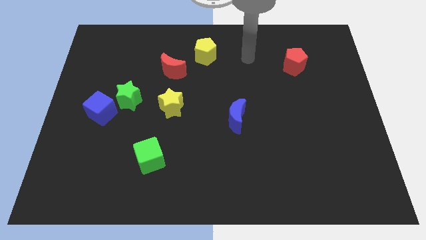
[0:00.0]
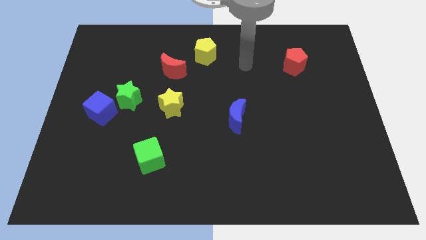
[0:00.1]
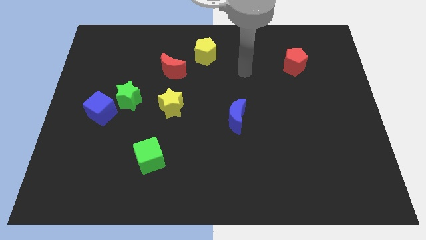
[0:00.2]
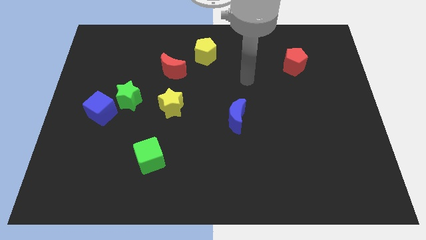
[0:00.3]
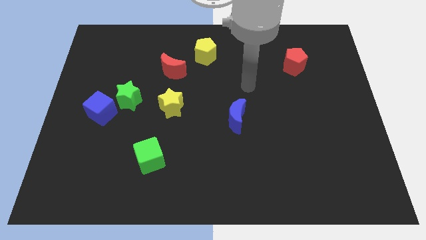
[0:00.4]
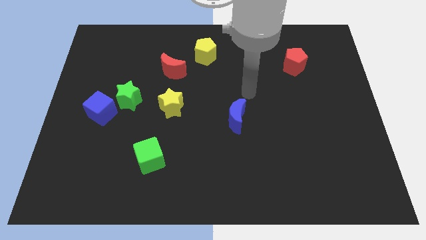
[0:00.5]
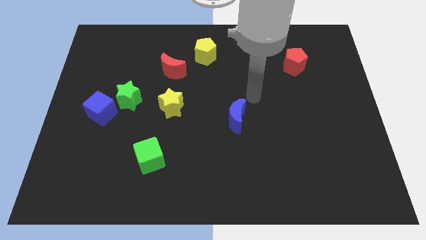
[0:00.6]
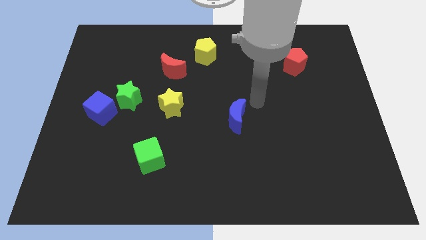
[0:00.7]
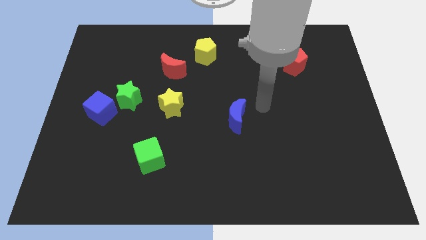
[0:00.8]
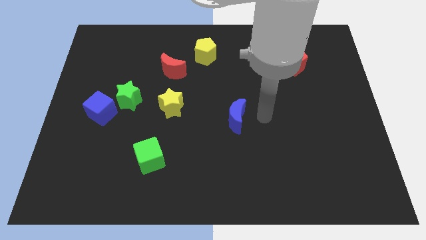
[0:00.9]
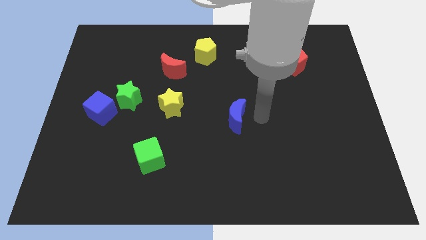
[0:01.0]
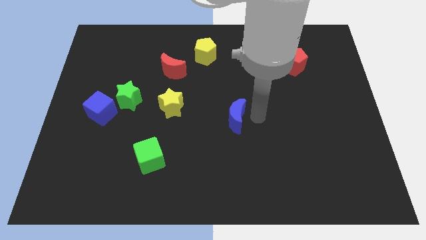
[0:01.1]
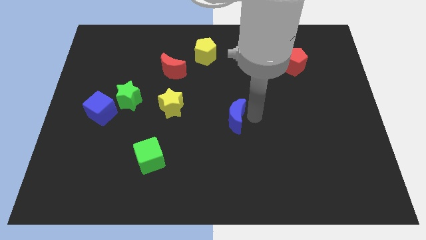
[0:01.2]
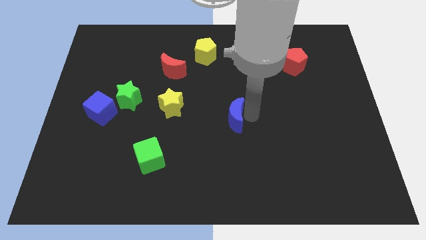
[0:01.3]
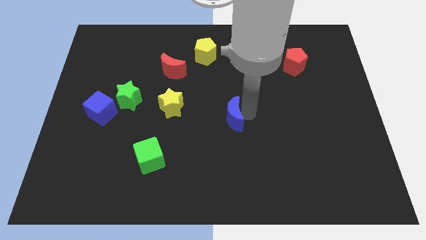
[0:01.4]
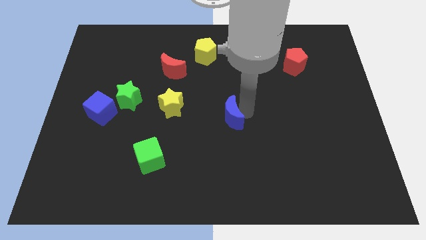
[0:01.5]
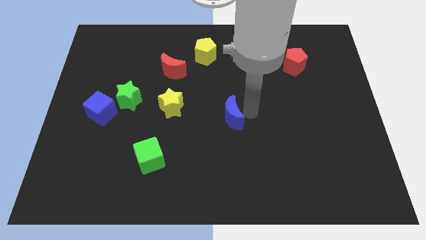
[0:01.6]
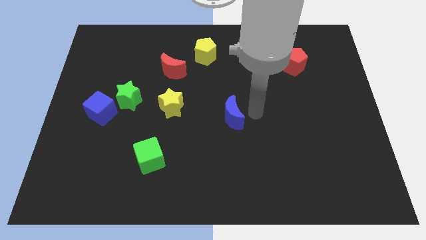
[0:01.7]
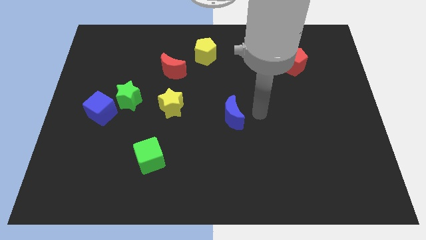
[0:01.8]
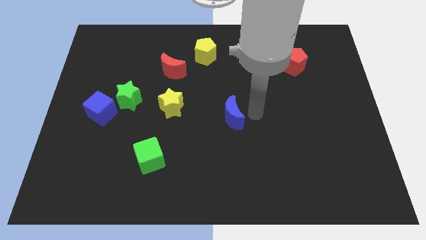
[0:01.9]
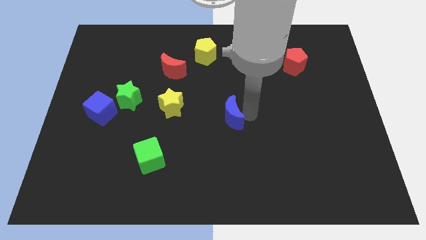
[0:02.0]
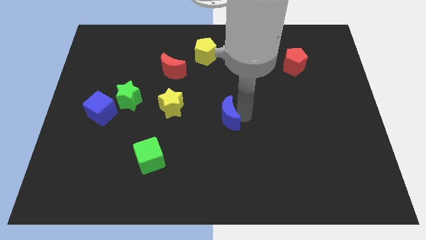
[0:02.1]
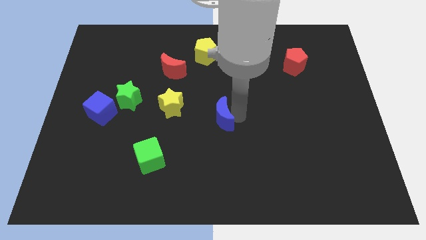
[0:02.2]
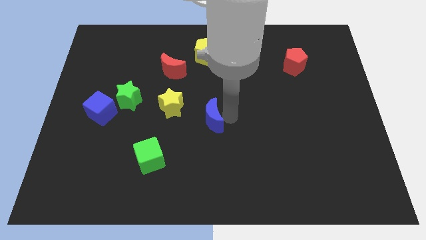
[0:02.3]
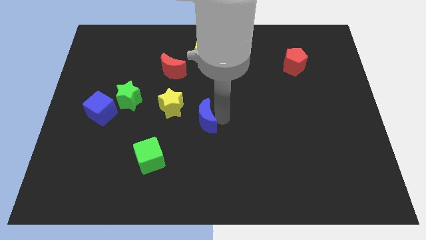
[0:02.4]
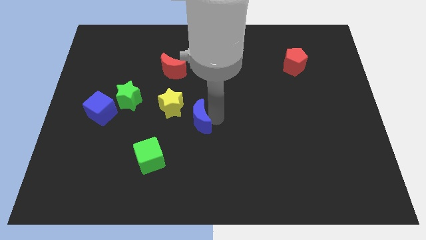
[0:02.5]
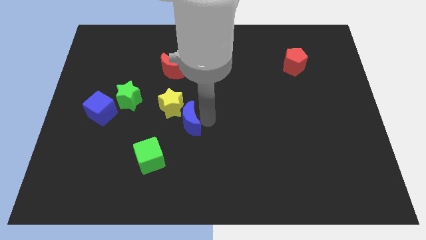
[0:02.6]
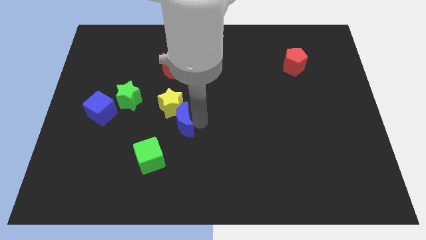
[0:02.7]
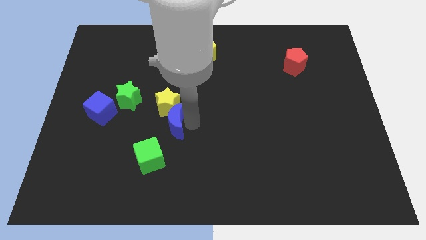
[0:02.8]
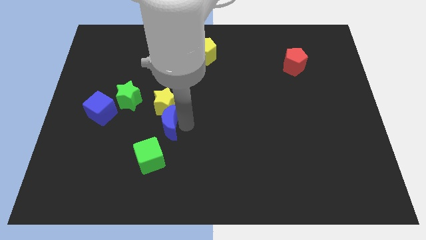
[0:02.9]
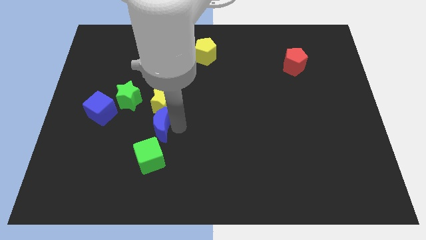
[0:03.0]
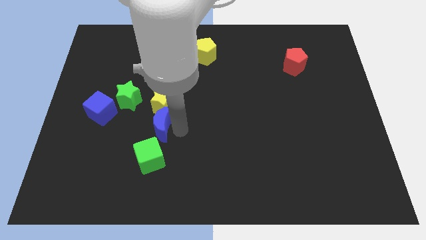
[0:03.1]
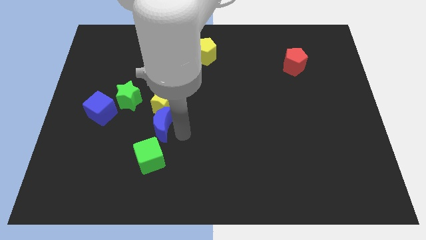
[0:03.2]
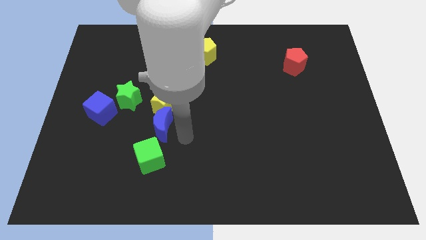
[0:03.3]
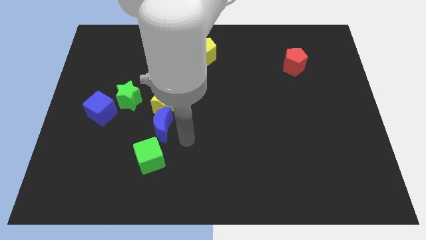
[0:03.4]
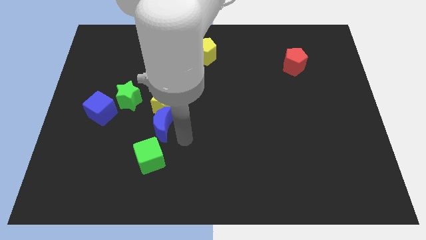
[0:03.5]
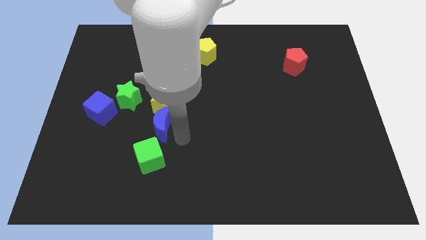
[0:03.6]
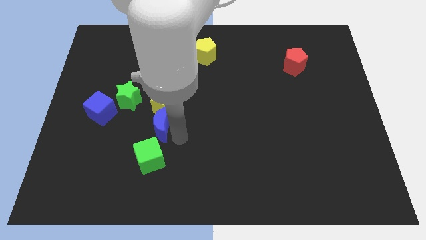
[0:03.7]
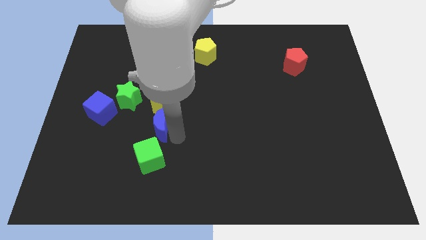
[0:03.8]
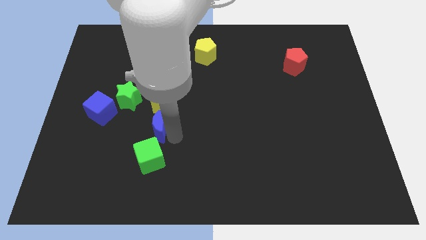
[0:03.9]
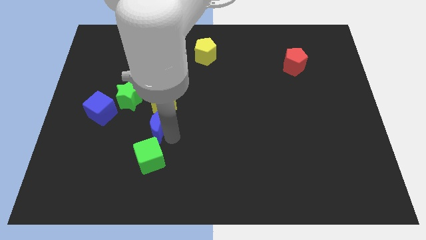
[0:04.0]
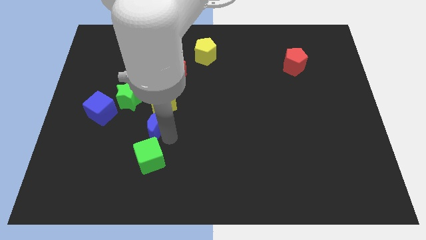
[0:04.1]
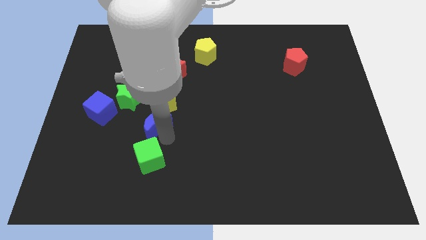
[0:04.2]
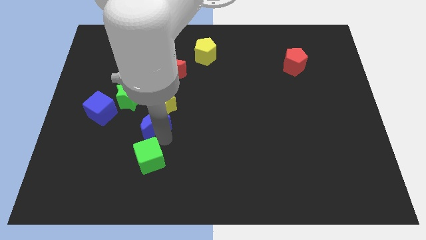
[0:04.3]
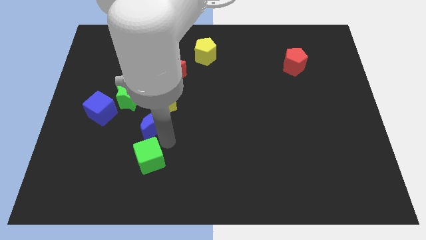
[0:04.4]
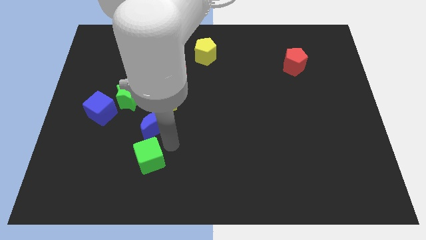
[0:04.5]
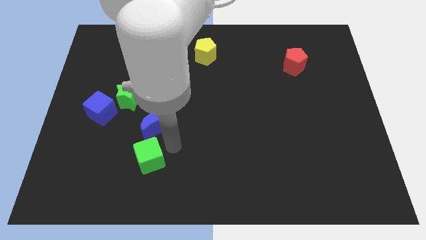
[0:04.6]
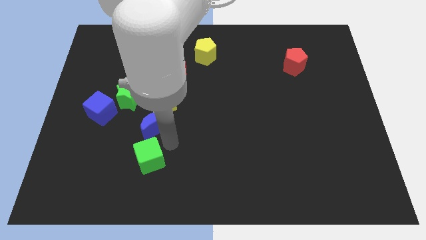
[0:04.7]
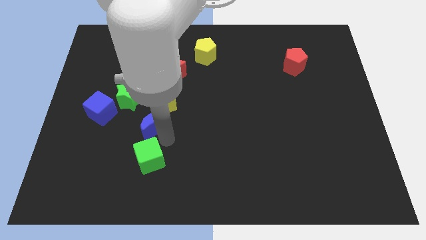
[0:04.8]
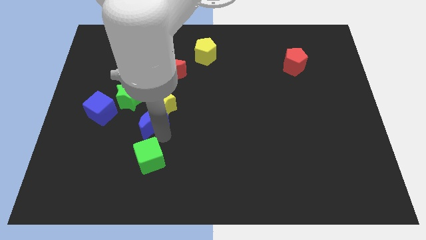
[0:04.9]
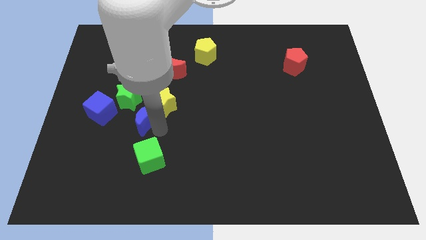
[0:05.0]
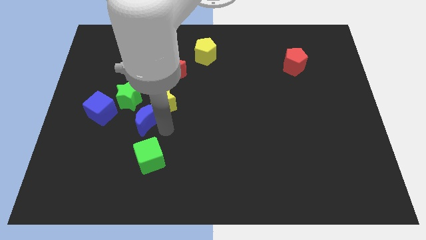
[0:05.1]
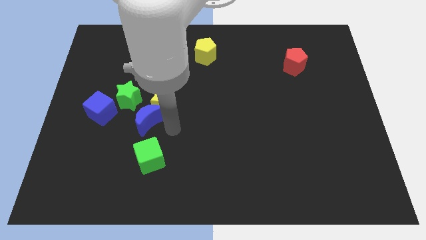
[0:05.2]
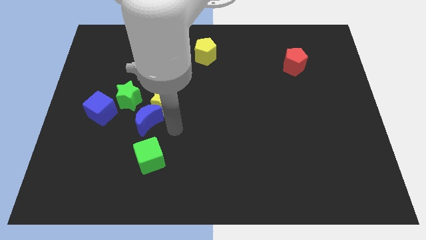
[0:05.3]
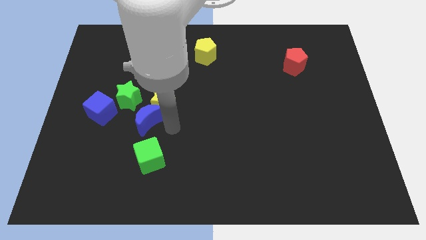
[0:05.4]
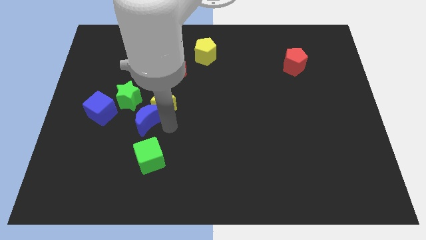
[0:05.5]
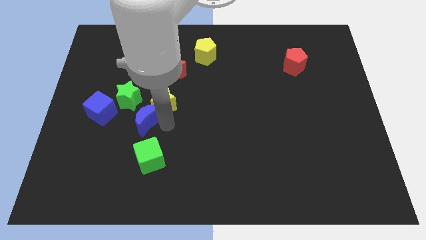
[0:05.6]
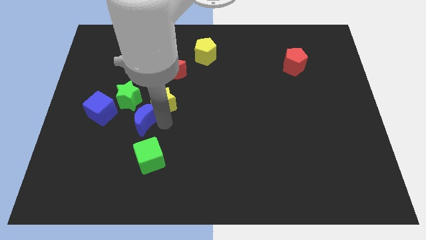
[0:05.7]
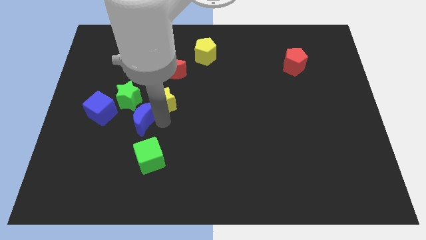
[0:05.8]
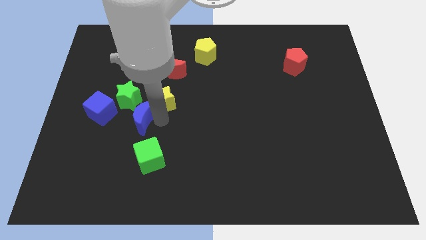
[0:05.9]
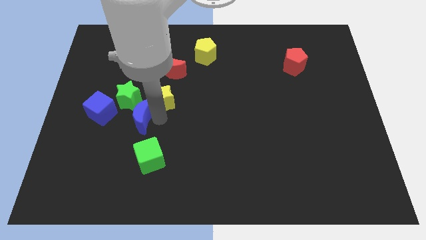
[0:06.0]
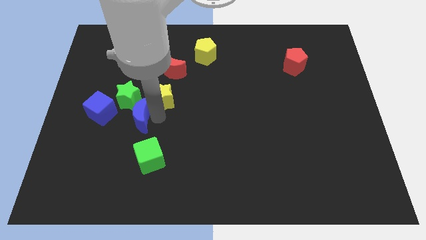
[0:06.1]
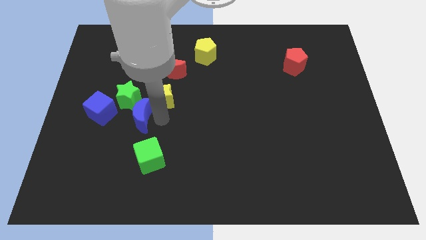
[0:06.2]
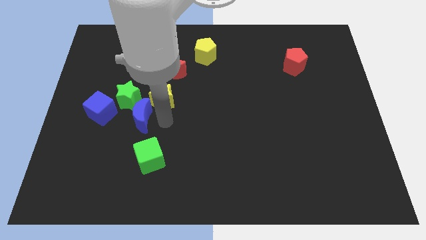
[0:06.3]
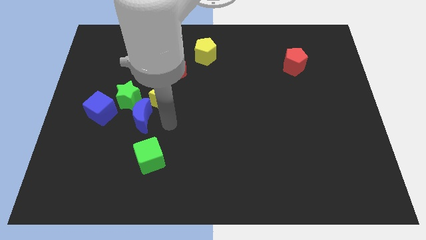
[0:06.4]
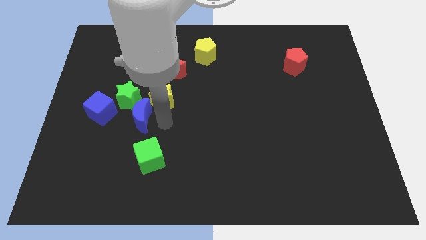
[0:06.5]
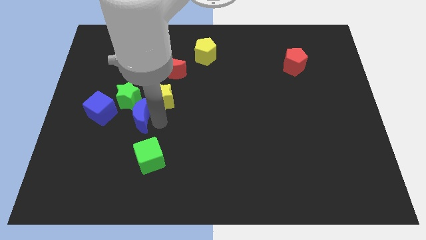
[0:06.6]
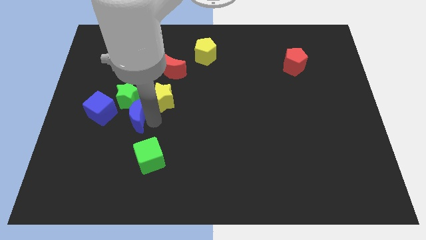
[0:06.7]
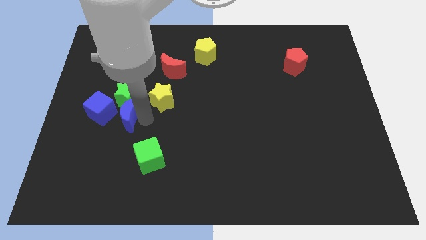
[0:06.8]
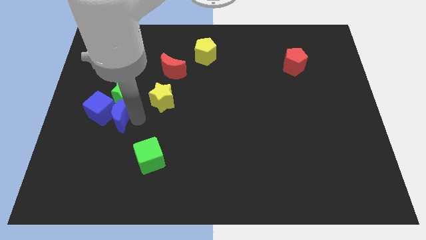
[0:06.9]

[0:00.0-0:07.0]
slide the blue moon towards the blue cube
